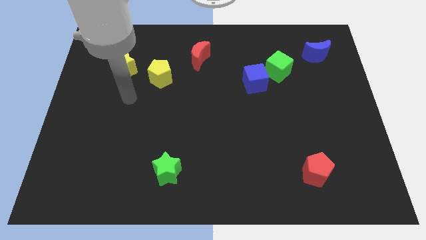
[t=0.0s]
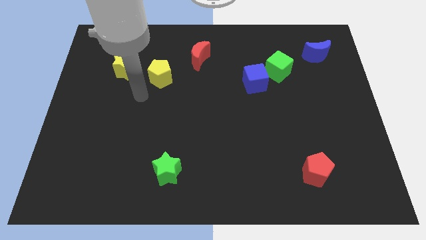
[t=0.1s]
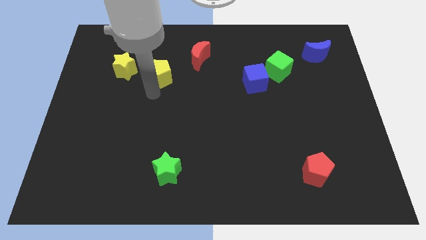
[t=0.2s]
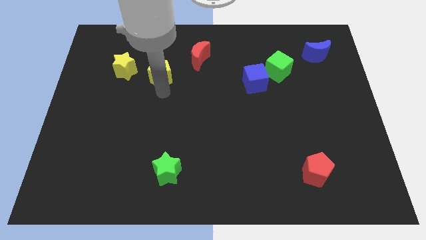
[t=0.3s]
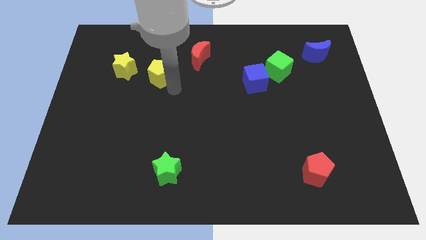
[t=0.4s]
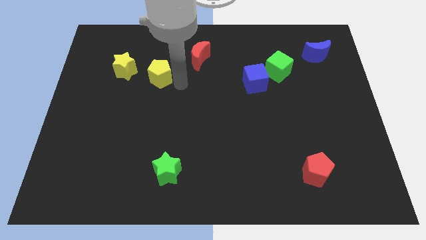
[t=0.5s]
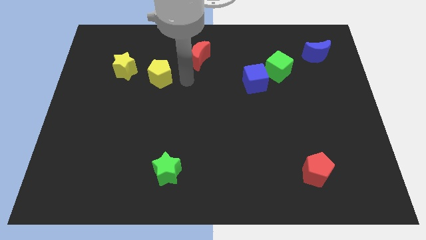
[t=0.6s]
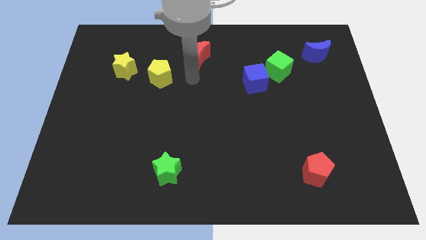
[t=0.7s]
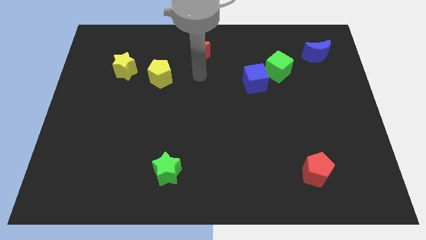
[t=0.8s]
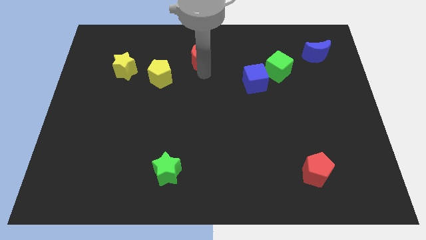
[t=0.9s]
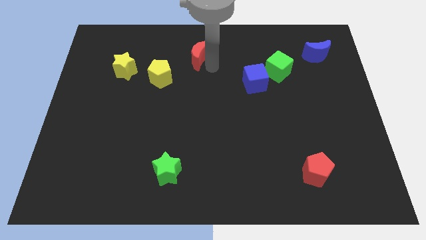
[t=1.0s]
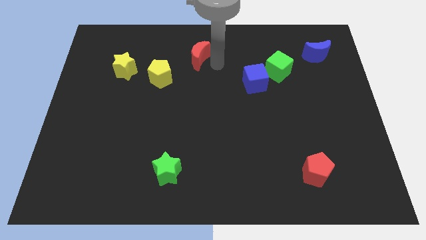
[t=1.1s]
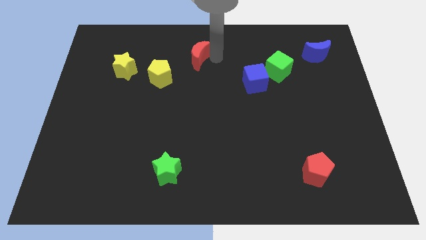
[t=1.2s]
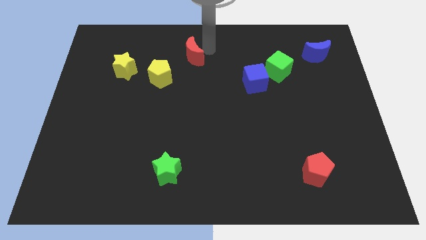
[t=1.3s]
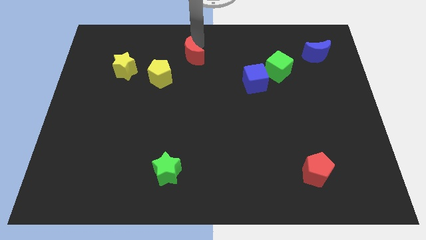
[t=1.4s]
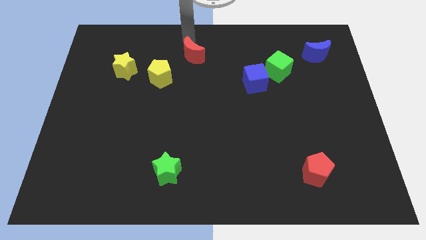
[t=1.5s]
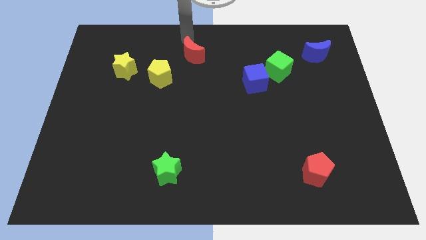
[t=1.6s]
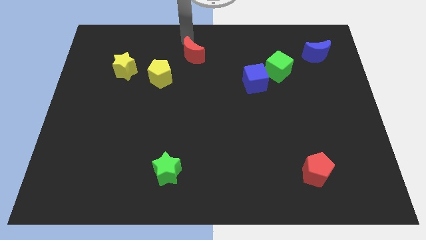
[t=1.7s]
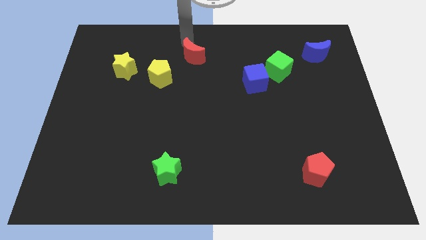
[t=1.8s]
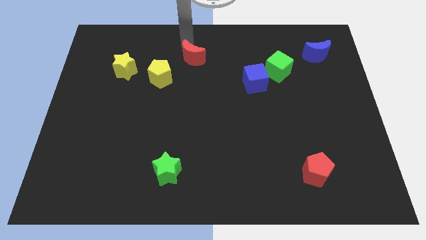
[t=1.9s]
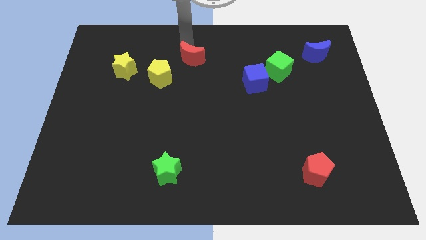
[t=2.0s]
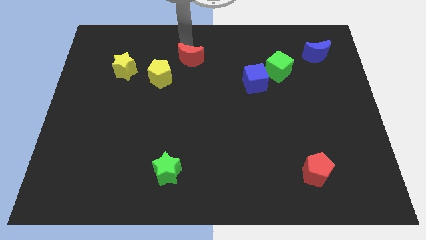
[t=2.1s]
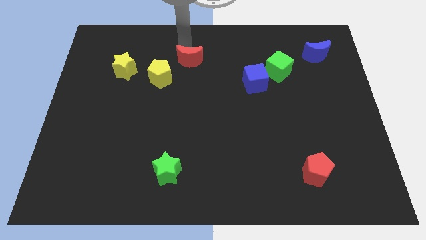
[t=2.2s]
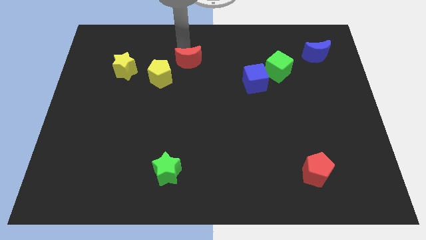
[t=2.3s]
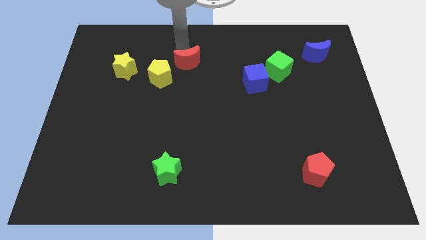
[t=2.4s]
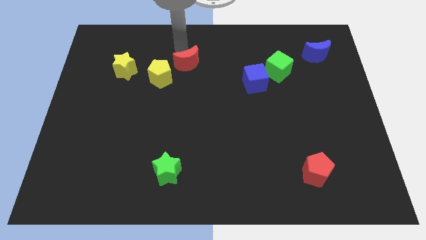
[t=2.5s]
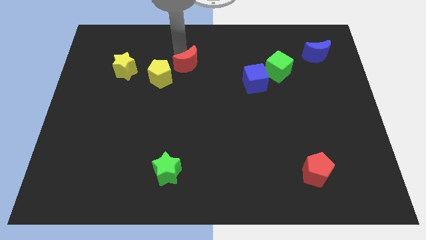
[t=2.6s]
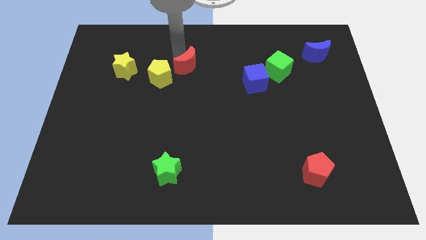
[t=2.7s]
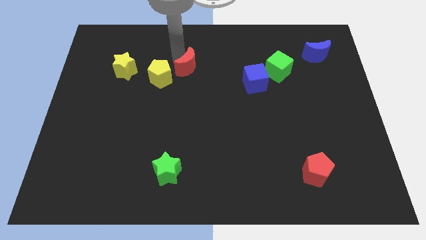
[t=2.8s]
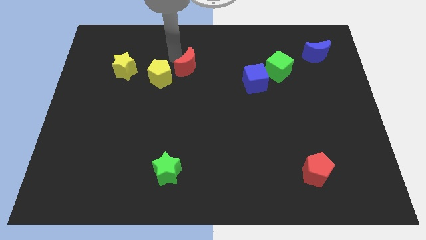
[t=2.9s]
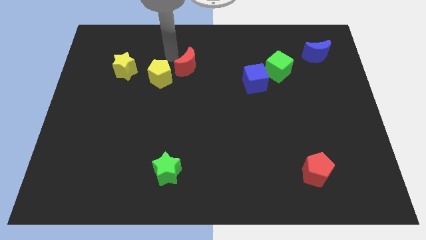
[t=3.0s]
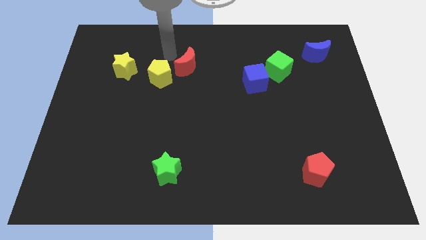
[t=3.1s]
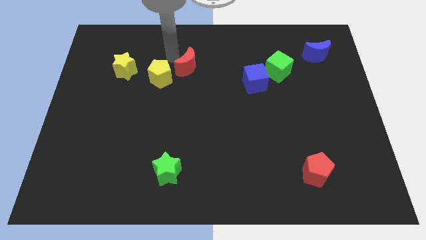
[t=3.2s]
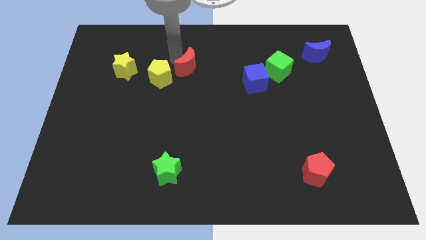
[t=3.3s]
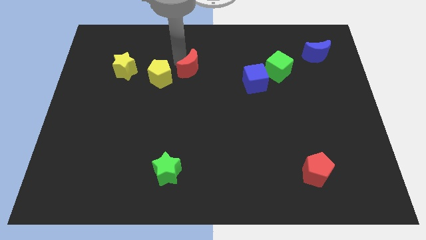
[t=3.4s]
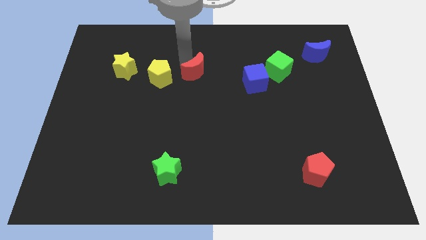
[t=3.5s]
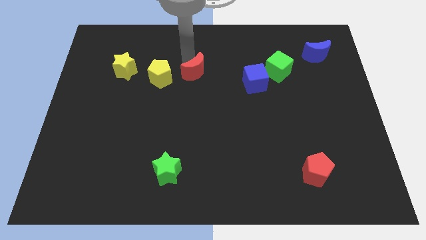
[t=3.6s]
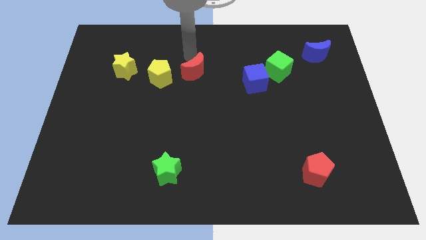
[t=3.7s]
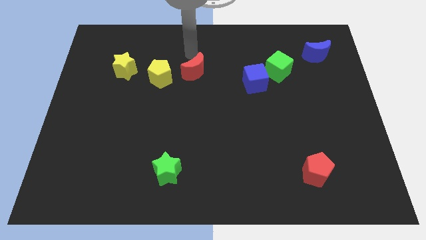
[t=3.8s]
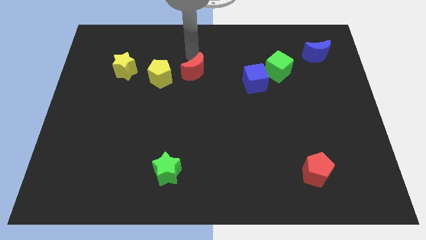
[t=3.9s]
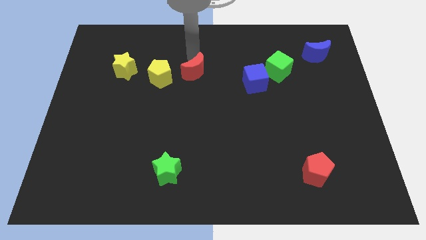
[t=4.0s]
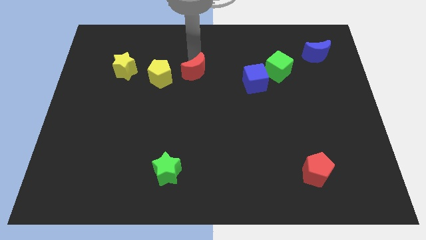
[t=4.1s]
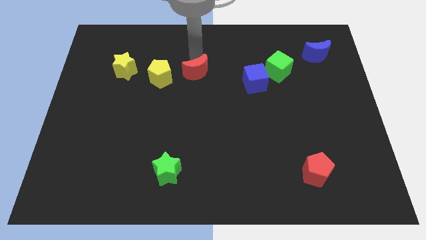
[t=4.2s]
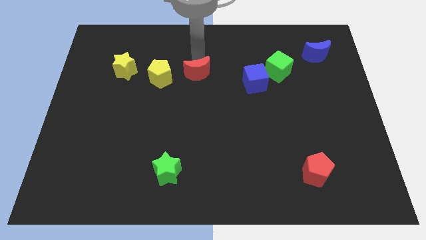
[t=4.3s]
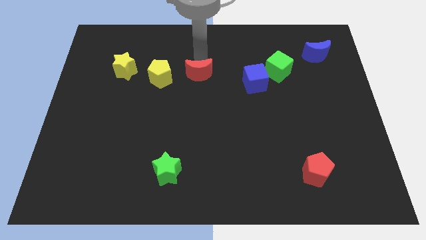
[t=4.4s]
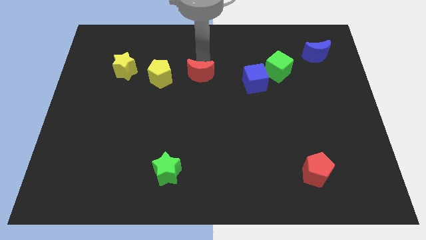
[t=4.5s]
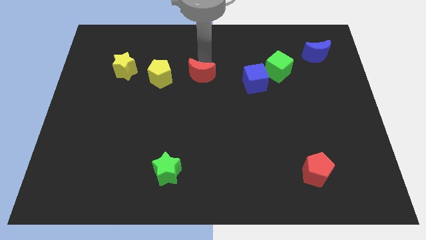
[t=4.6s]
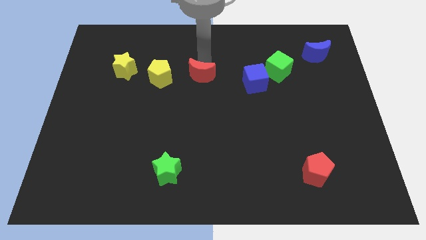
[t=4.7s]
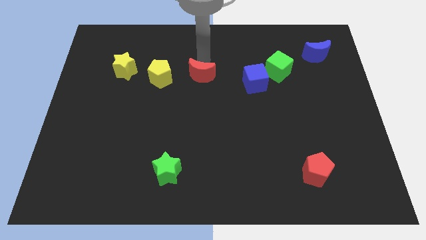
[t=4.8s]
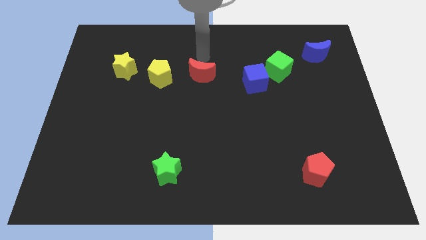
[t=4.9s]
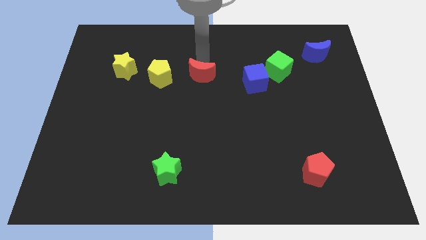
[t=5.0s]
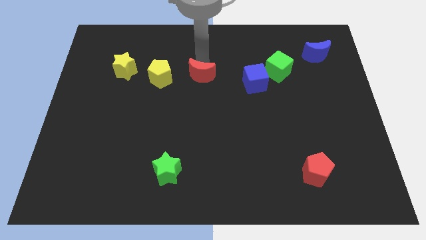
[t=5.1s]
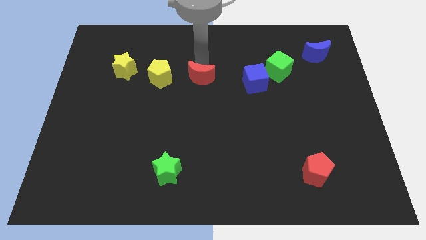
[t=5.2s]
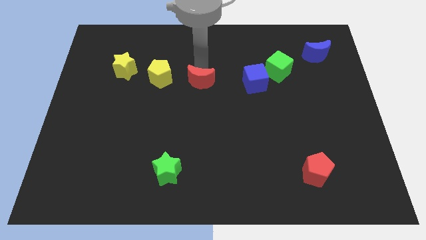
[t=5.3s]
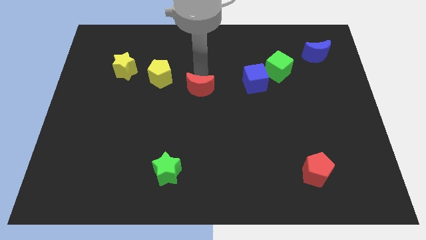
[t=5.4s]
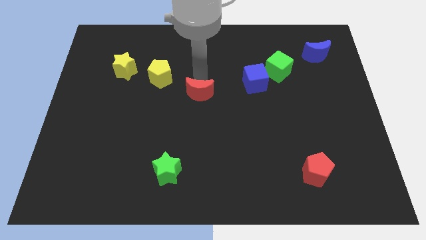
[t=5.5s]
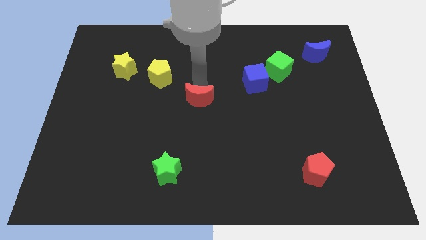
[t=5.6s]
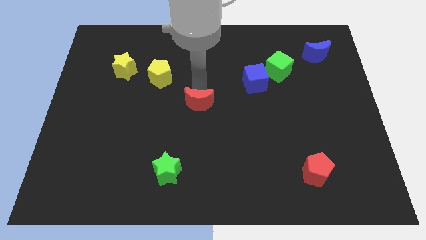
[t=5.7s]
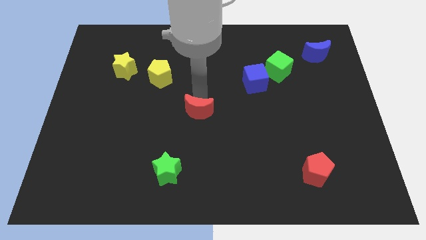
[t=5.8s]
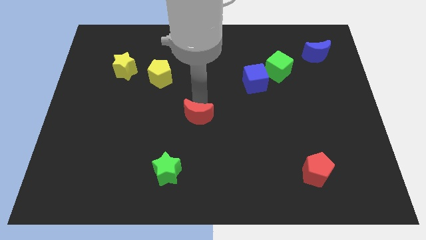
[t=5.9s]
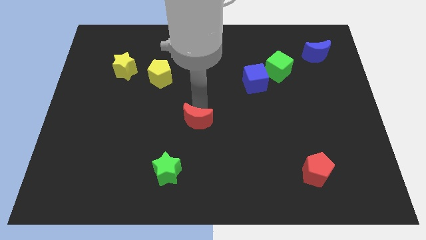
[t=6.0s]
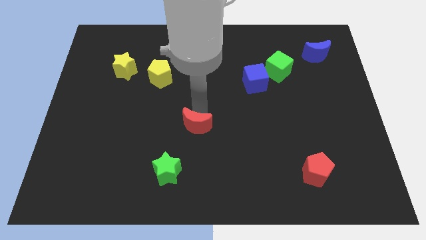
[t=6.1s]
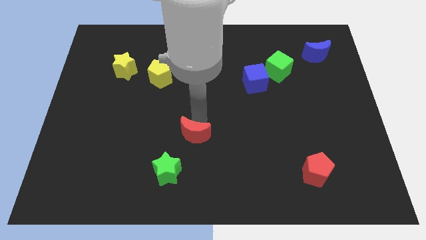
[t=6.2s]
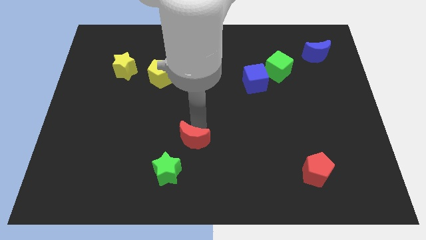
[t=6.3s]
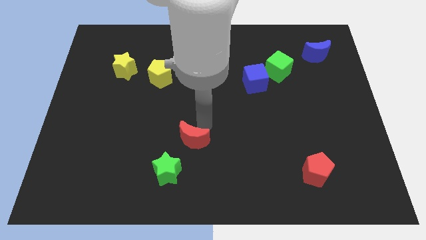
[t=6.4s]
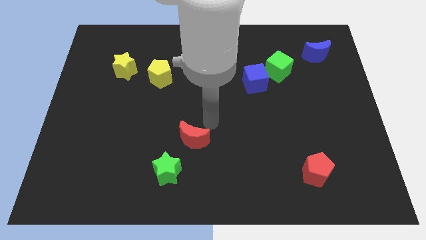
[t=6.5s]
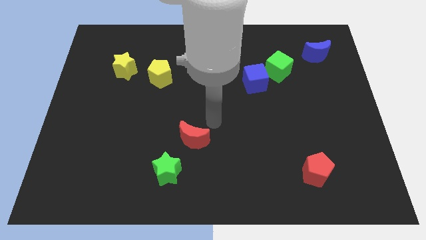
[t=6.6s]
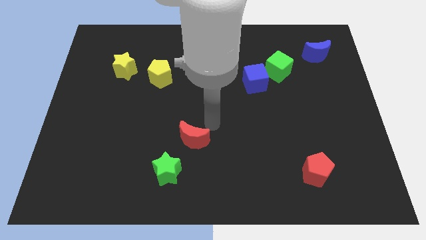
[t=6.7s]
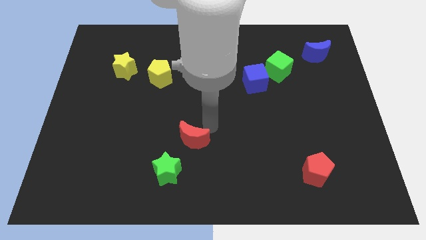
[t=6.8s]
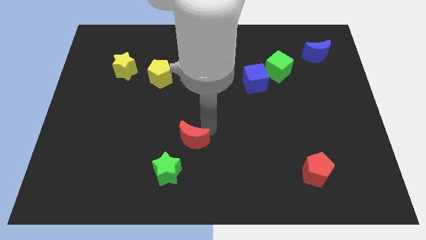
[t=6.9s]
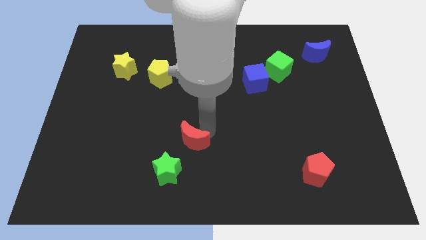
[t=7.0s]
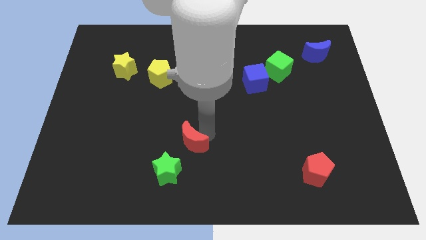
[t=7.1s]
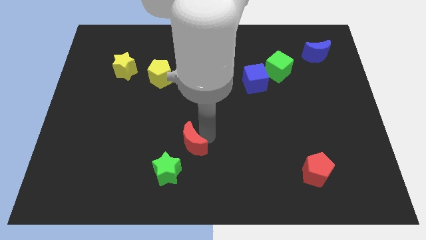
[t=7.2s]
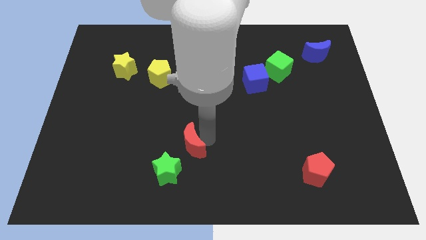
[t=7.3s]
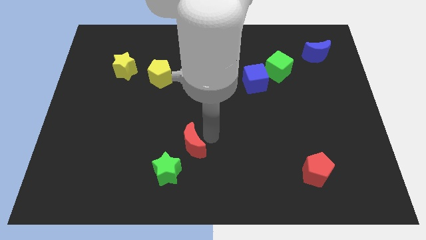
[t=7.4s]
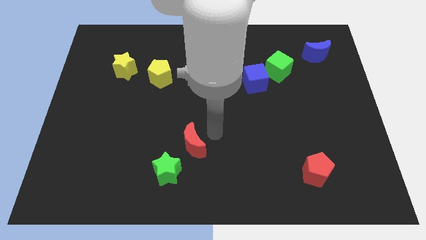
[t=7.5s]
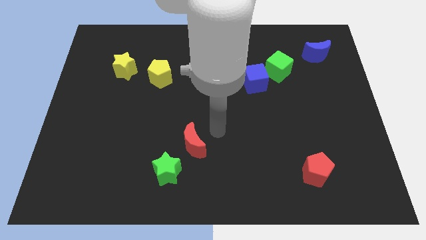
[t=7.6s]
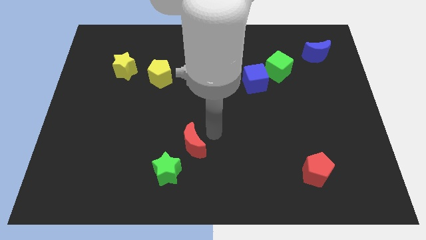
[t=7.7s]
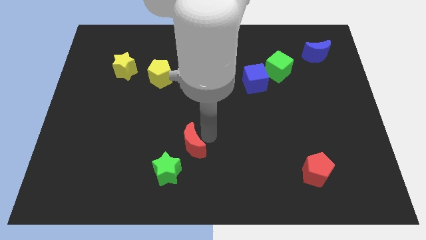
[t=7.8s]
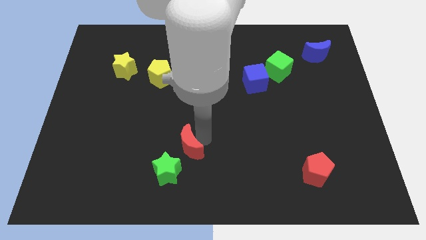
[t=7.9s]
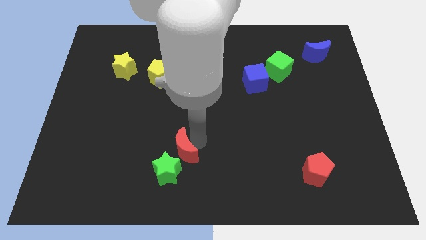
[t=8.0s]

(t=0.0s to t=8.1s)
push the red moon towards the green star
